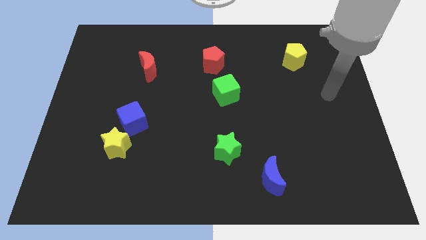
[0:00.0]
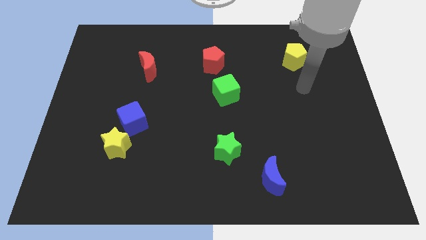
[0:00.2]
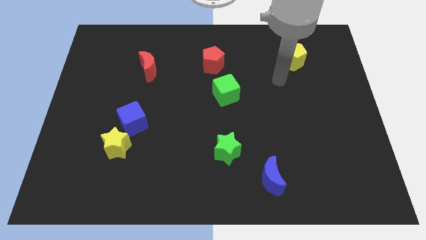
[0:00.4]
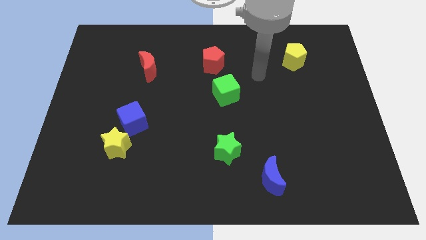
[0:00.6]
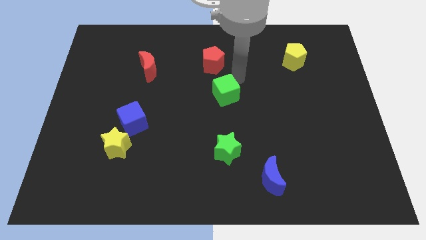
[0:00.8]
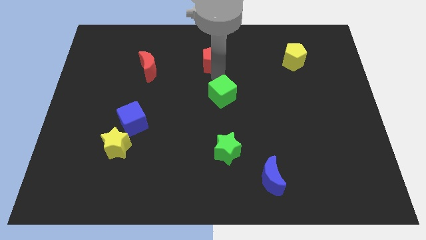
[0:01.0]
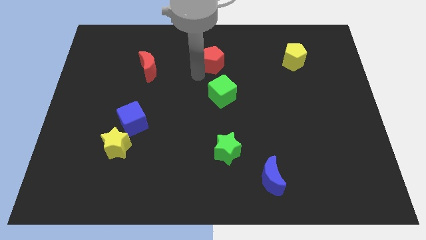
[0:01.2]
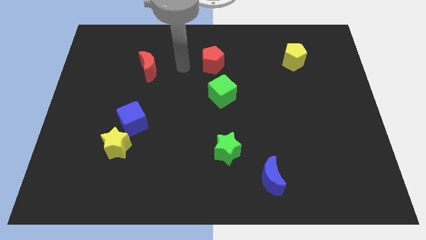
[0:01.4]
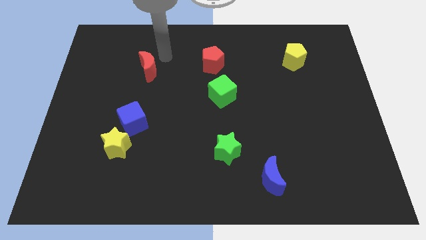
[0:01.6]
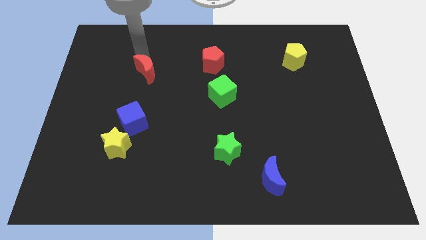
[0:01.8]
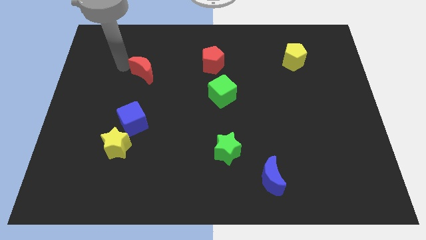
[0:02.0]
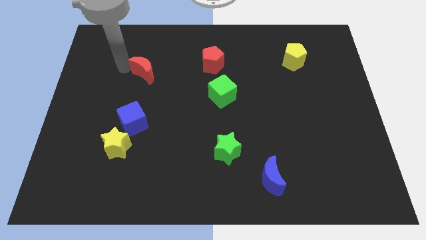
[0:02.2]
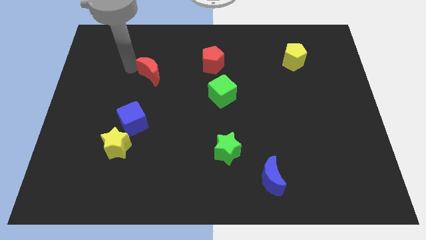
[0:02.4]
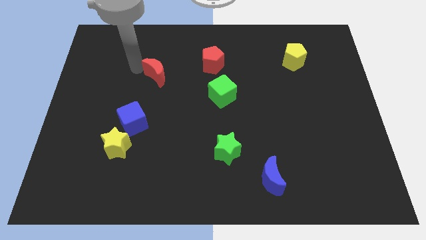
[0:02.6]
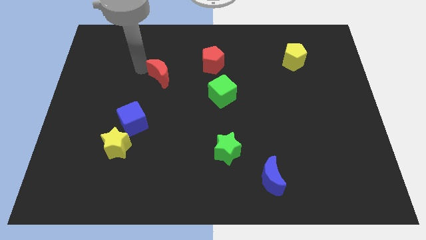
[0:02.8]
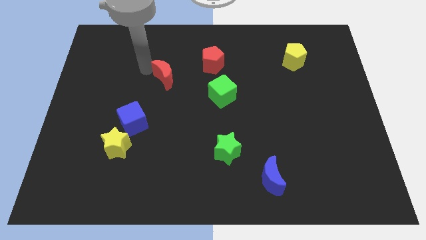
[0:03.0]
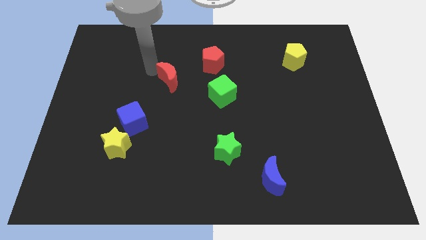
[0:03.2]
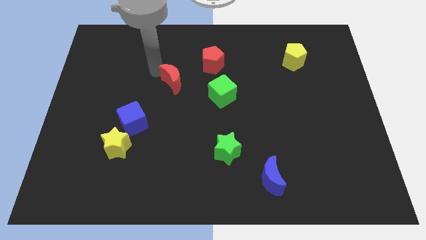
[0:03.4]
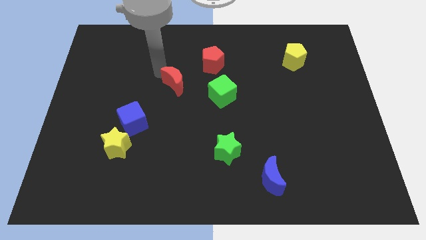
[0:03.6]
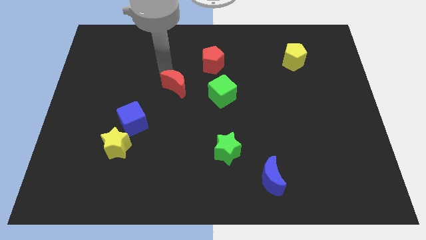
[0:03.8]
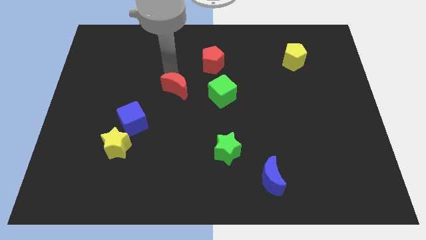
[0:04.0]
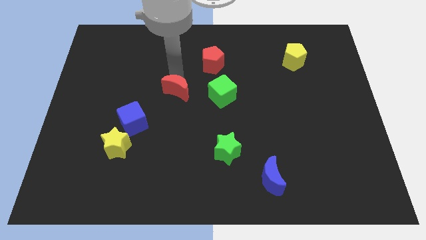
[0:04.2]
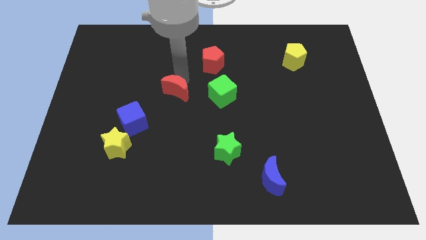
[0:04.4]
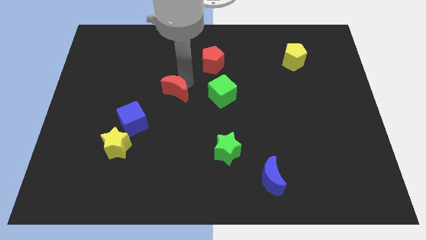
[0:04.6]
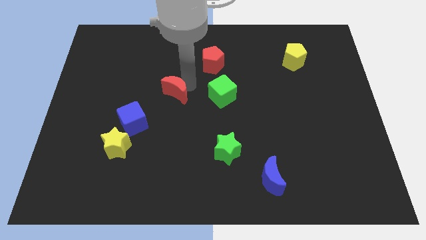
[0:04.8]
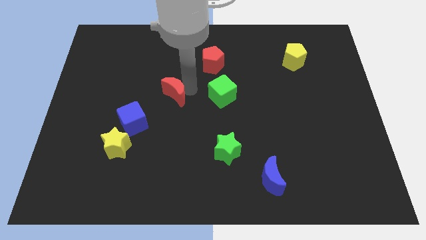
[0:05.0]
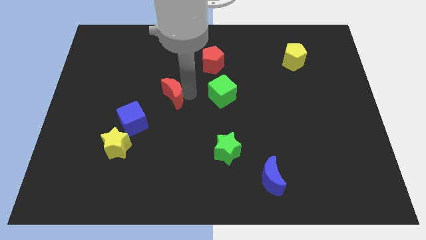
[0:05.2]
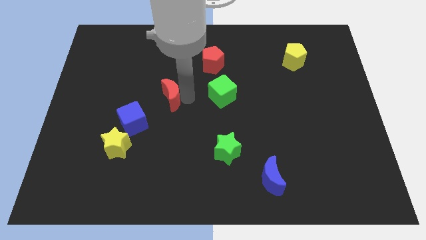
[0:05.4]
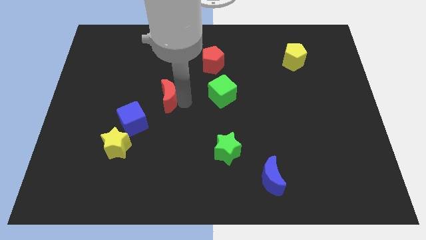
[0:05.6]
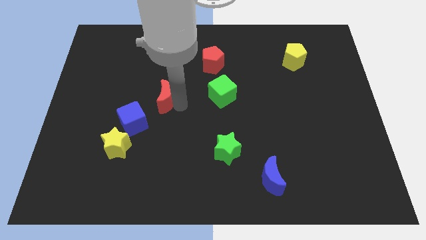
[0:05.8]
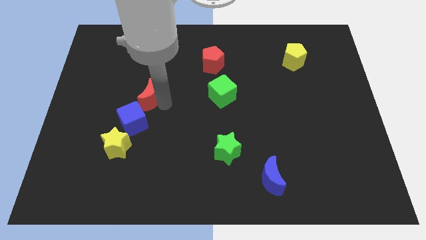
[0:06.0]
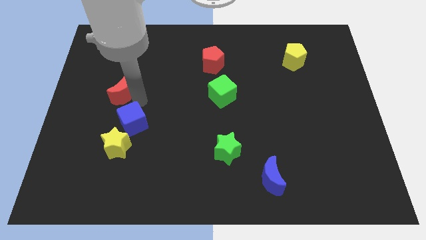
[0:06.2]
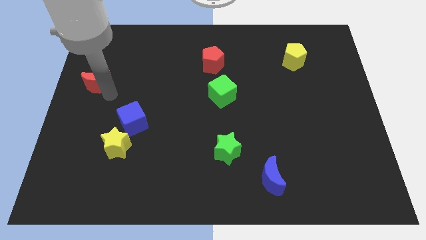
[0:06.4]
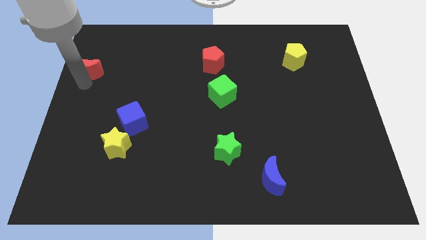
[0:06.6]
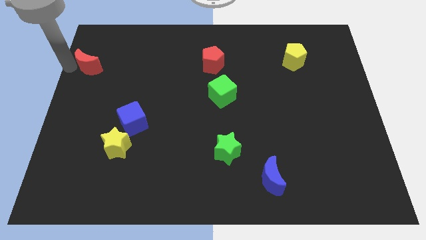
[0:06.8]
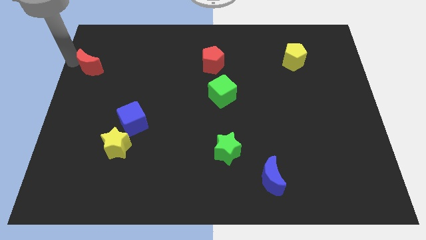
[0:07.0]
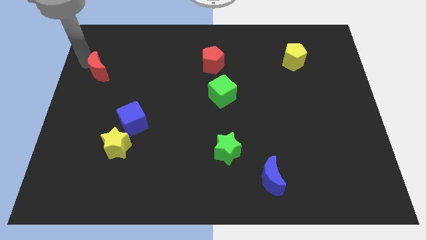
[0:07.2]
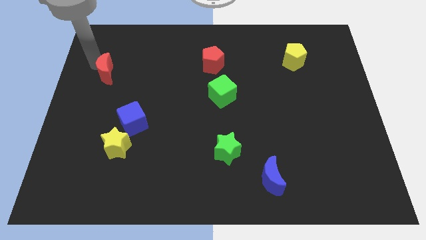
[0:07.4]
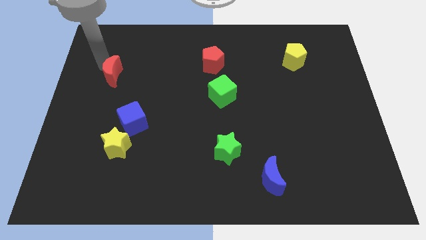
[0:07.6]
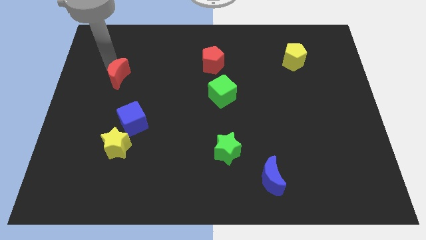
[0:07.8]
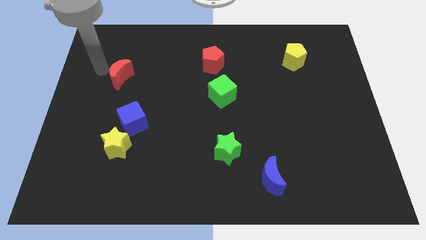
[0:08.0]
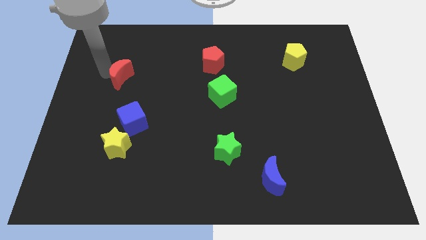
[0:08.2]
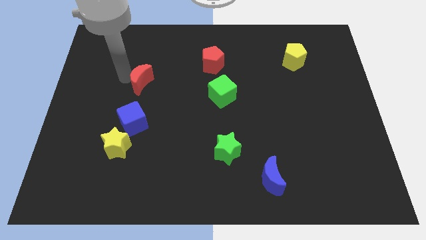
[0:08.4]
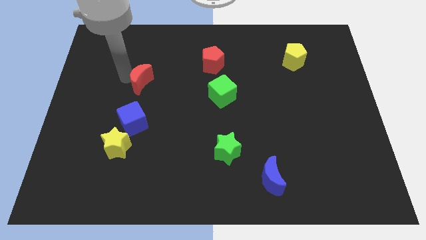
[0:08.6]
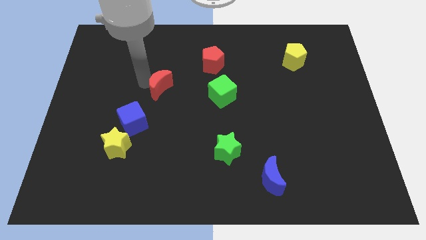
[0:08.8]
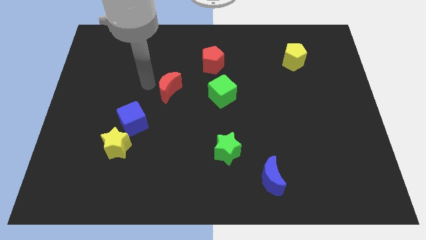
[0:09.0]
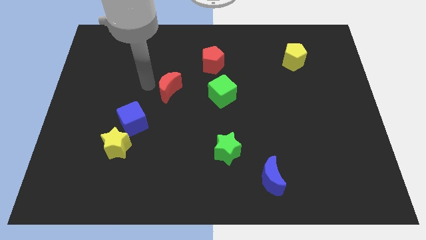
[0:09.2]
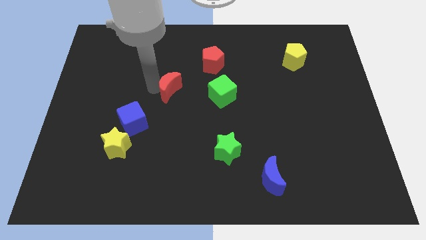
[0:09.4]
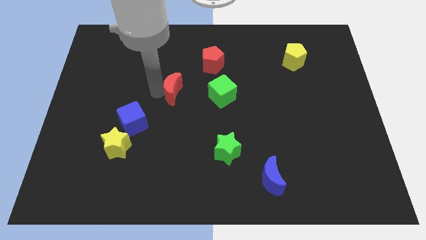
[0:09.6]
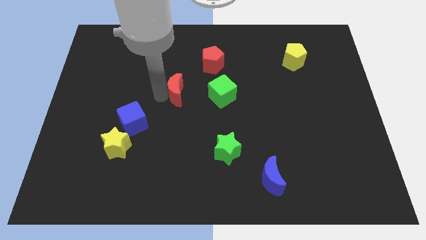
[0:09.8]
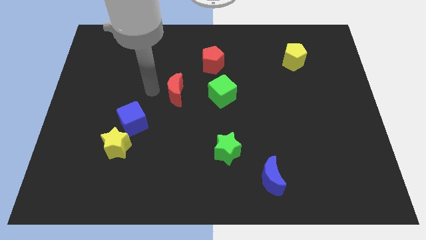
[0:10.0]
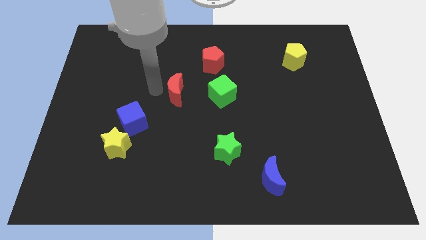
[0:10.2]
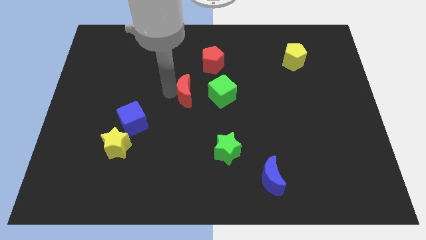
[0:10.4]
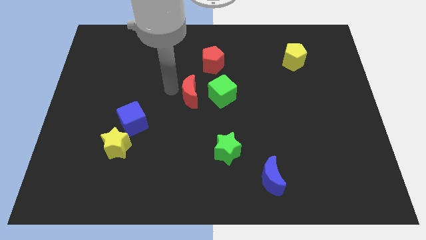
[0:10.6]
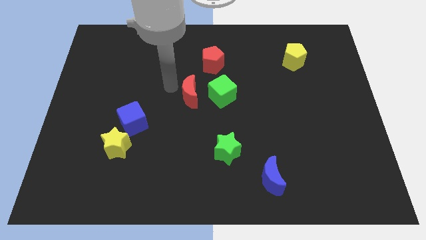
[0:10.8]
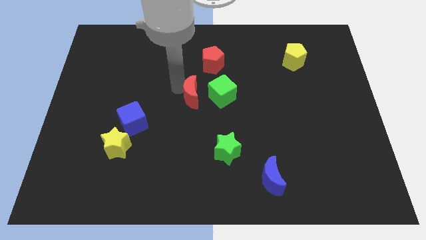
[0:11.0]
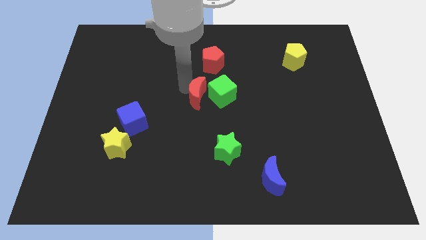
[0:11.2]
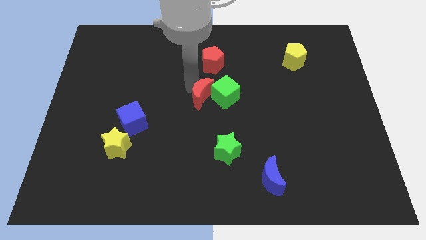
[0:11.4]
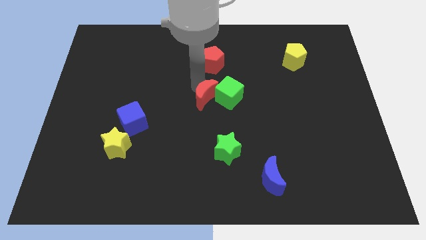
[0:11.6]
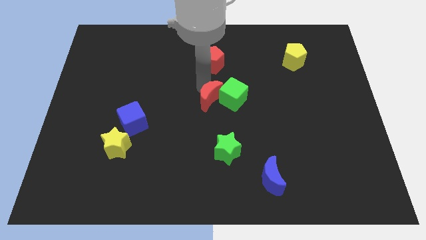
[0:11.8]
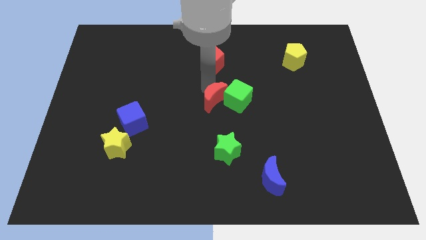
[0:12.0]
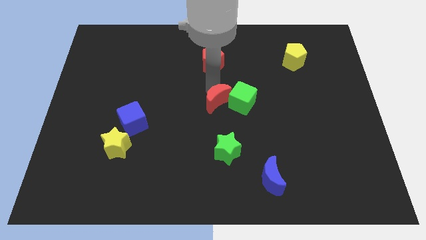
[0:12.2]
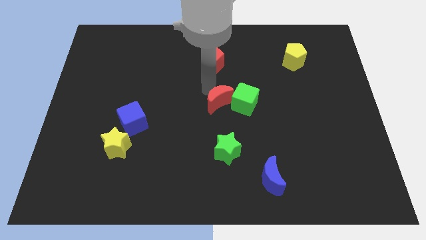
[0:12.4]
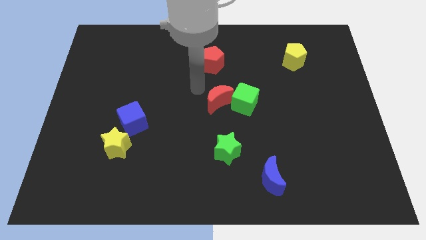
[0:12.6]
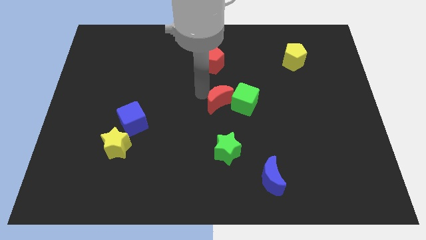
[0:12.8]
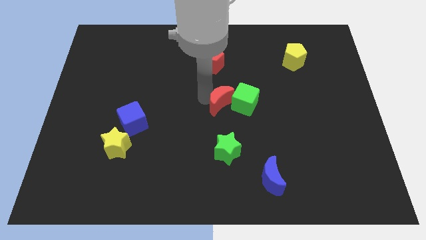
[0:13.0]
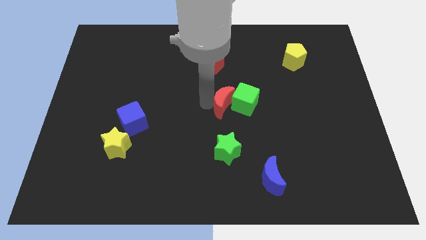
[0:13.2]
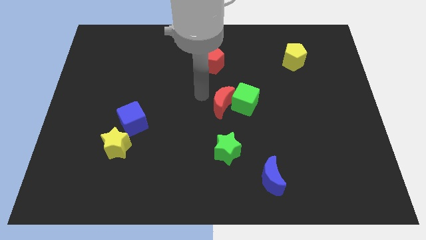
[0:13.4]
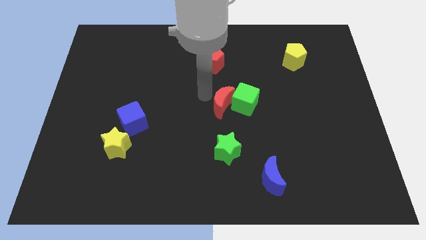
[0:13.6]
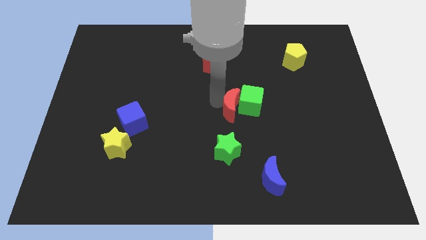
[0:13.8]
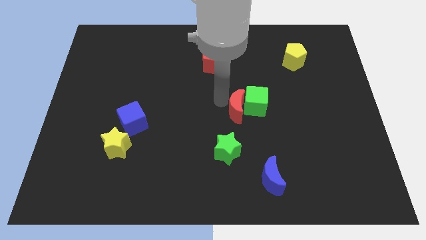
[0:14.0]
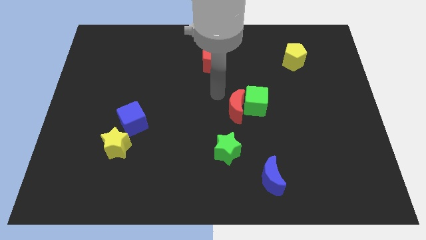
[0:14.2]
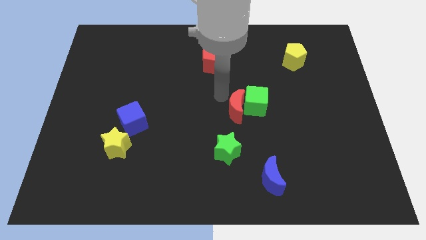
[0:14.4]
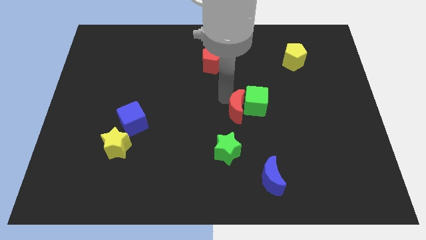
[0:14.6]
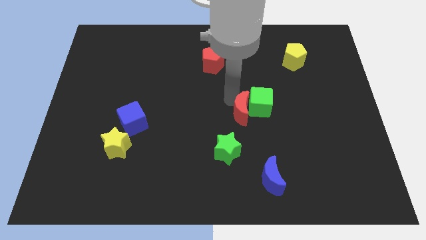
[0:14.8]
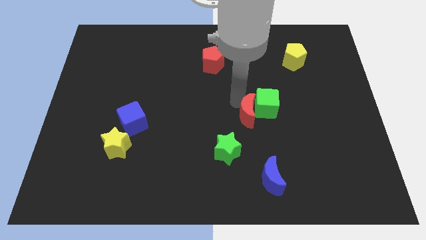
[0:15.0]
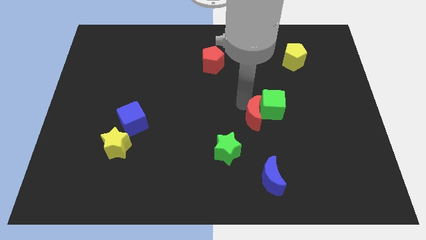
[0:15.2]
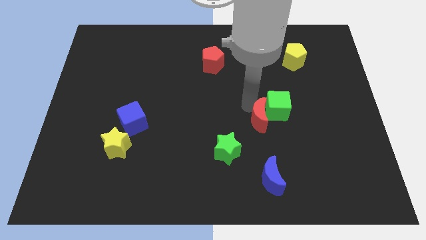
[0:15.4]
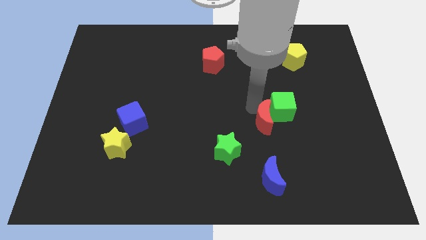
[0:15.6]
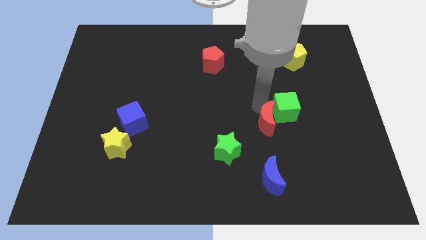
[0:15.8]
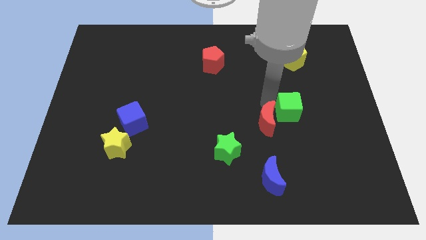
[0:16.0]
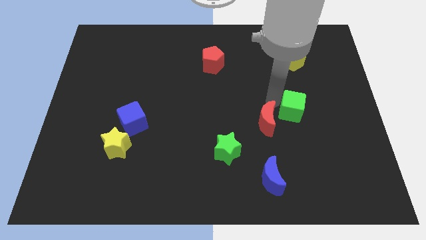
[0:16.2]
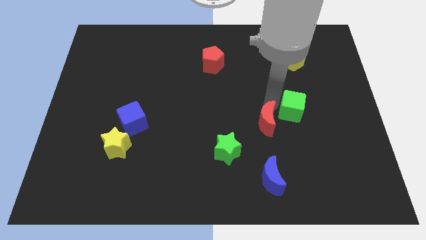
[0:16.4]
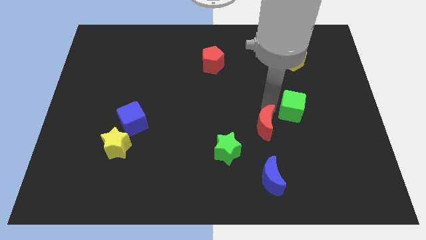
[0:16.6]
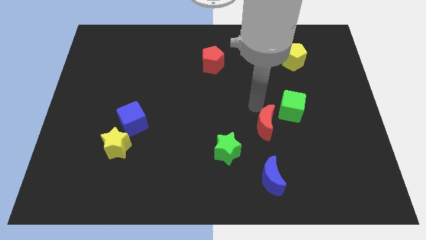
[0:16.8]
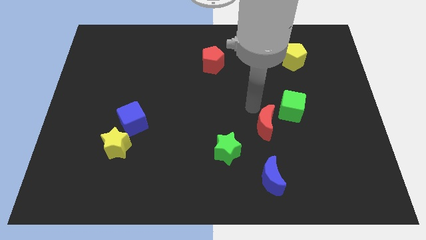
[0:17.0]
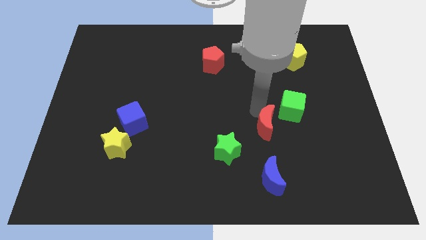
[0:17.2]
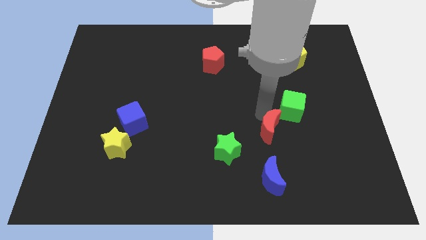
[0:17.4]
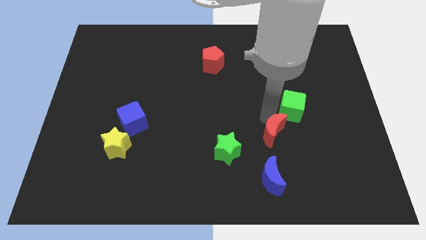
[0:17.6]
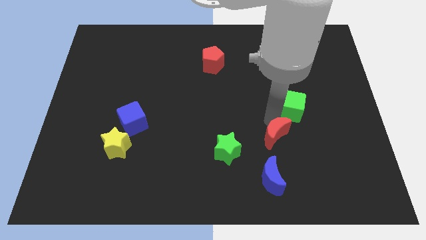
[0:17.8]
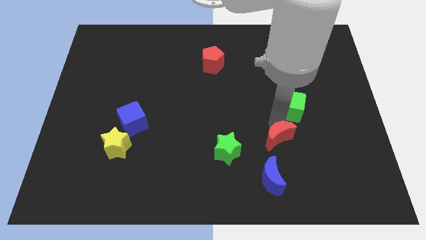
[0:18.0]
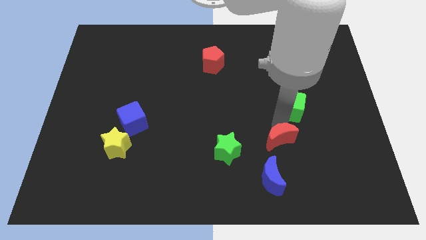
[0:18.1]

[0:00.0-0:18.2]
slide the red moon diagonally up and to the right of the blue moon
